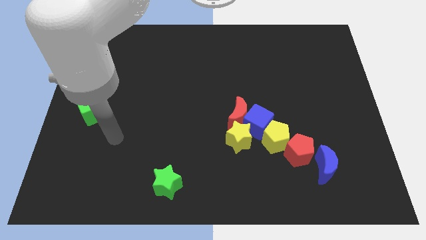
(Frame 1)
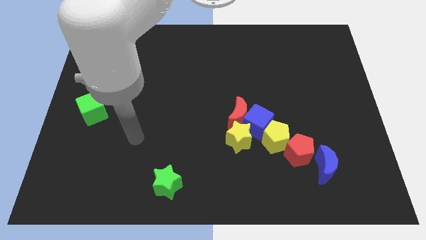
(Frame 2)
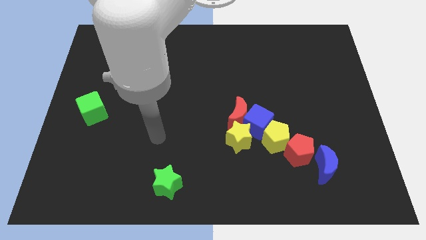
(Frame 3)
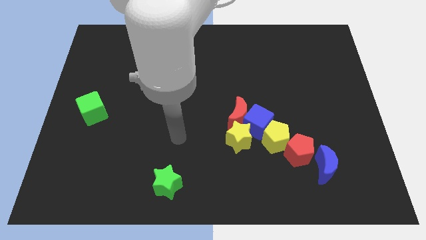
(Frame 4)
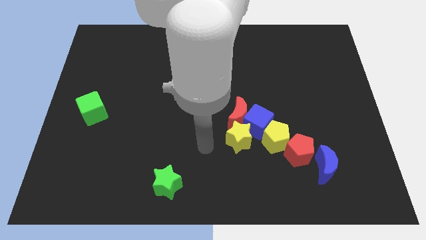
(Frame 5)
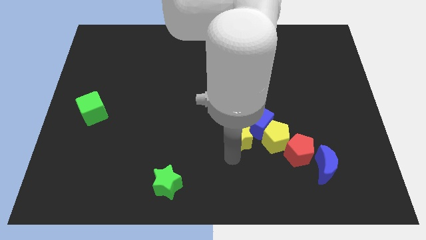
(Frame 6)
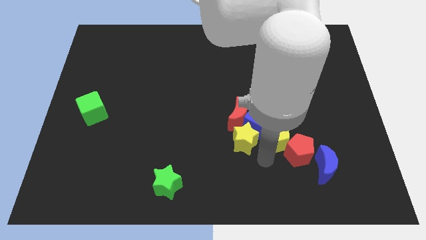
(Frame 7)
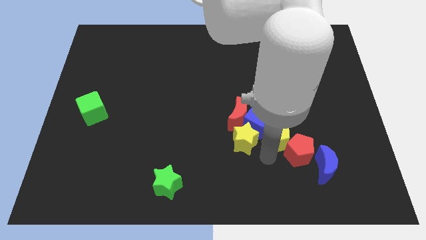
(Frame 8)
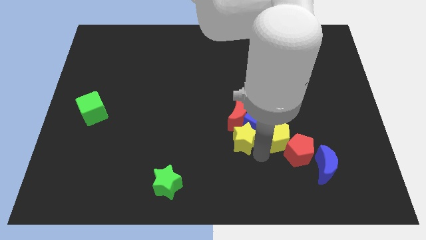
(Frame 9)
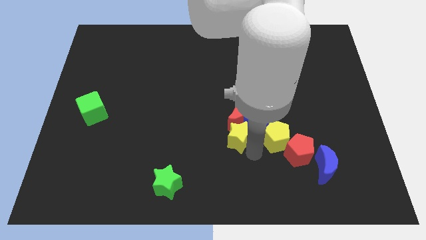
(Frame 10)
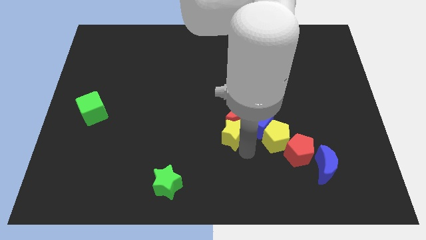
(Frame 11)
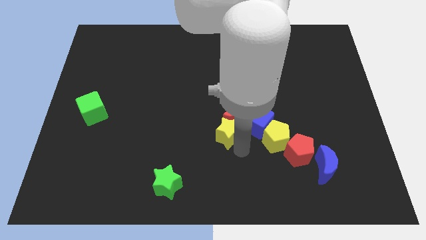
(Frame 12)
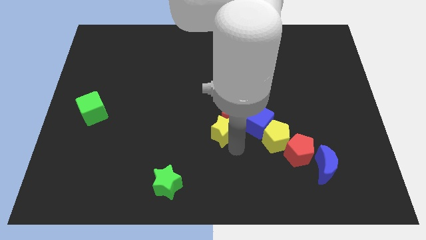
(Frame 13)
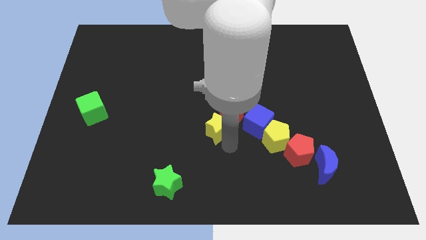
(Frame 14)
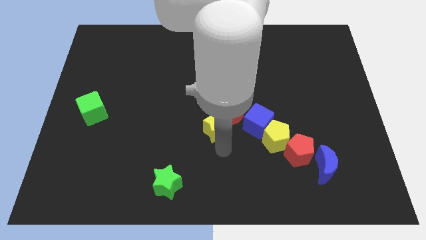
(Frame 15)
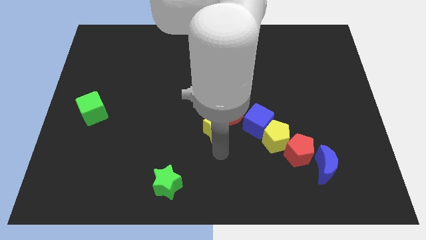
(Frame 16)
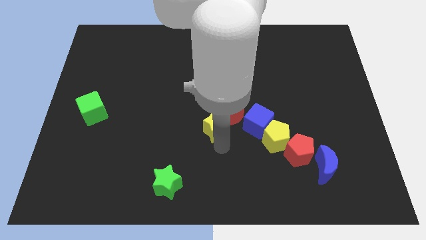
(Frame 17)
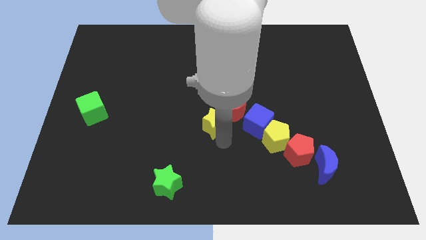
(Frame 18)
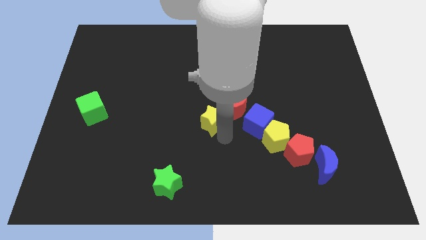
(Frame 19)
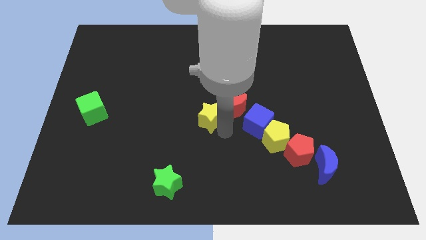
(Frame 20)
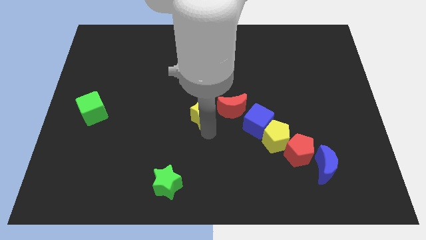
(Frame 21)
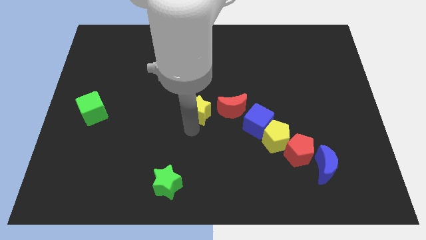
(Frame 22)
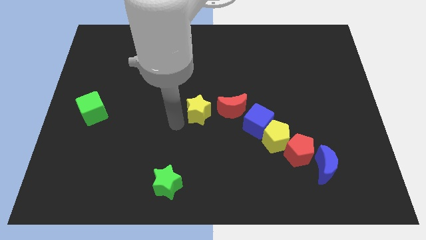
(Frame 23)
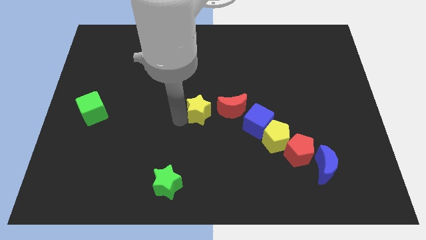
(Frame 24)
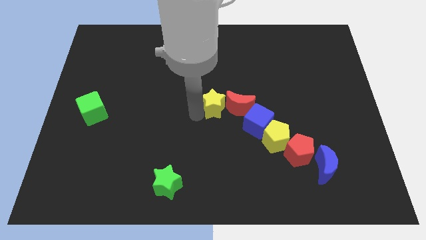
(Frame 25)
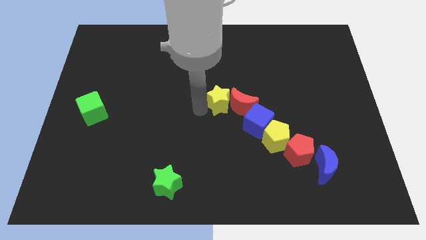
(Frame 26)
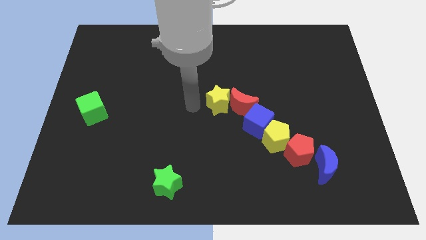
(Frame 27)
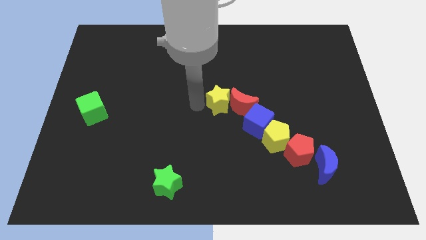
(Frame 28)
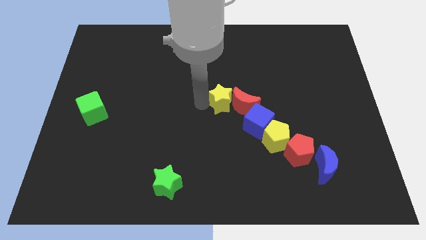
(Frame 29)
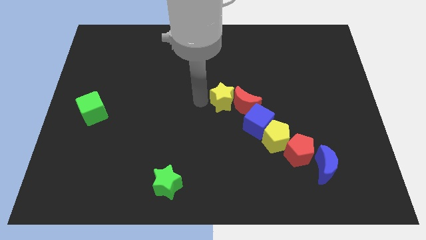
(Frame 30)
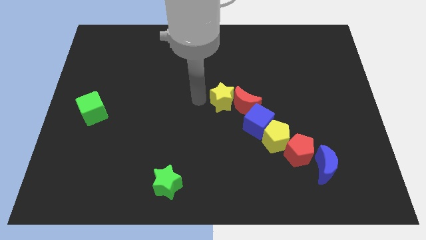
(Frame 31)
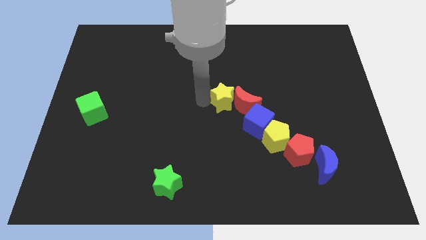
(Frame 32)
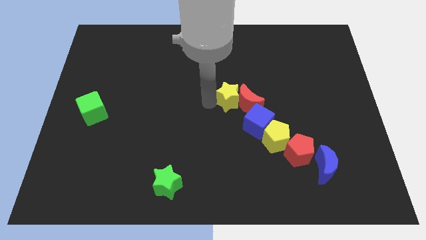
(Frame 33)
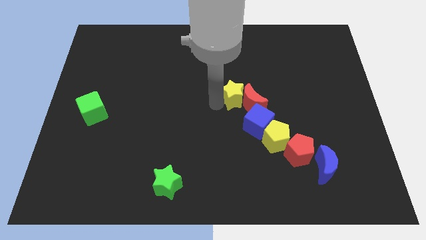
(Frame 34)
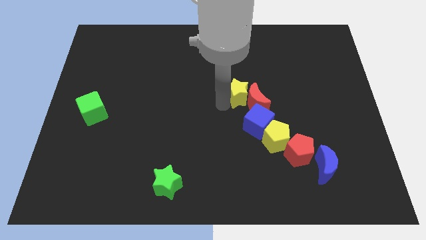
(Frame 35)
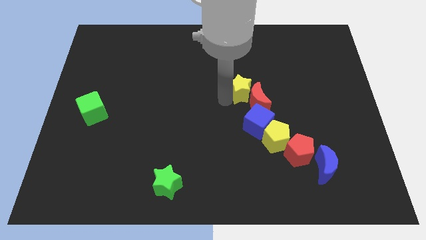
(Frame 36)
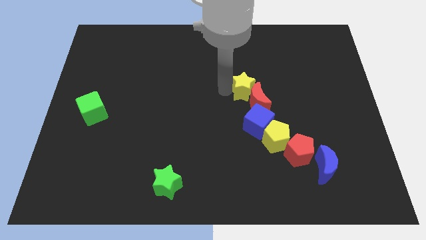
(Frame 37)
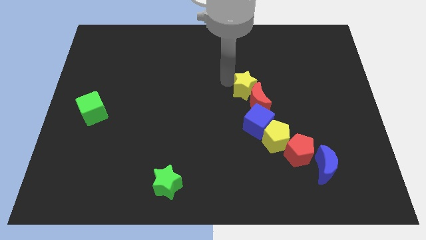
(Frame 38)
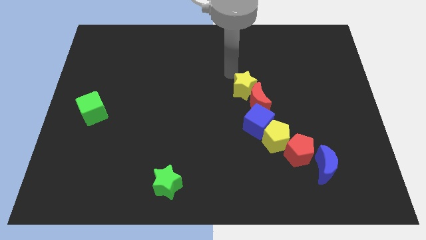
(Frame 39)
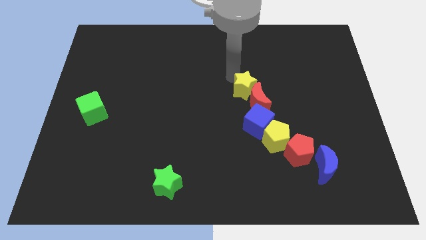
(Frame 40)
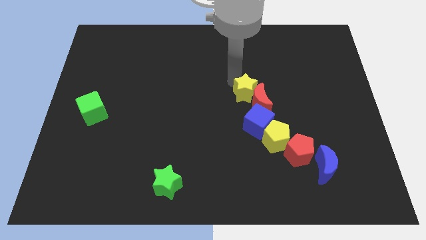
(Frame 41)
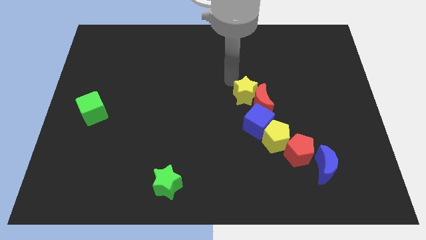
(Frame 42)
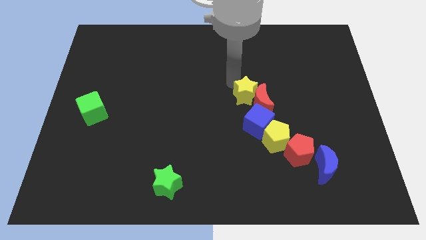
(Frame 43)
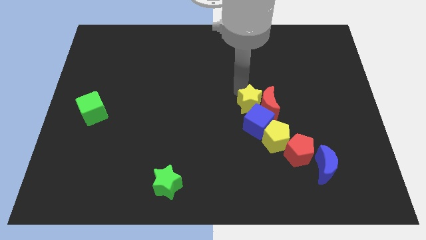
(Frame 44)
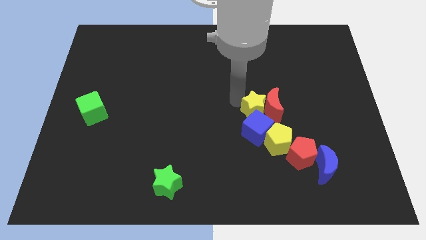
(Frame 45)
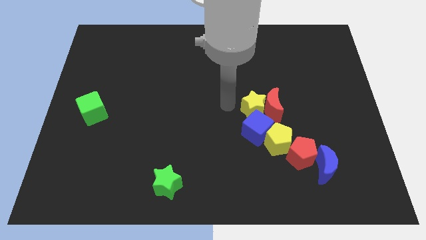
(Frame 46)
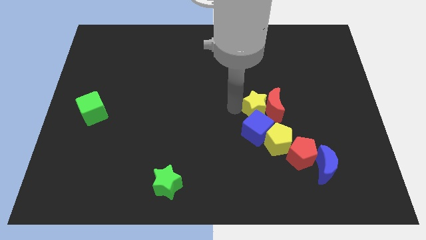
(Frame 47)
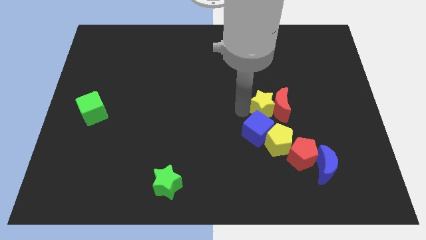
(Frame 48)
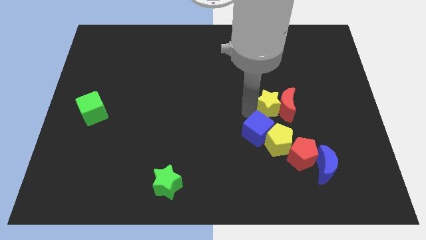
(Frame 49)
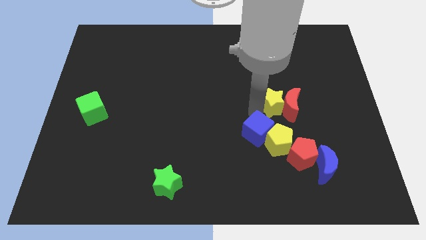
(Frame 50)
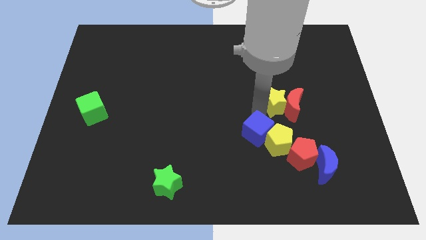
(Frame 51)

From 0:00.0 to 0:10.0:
put the yellow star to the top side of the red pentagon

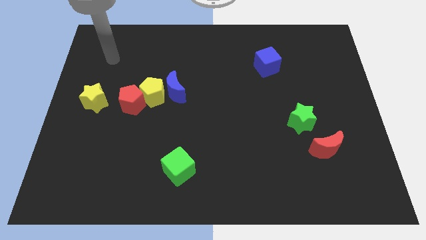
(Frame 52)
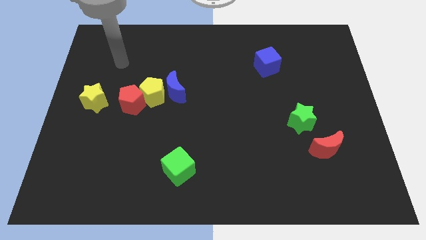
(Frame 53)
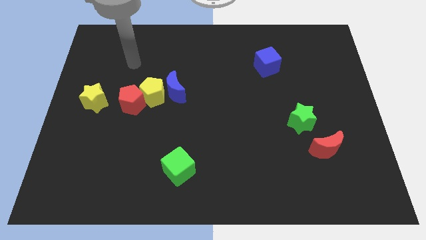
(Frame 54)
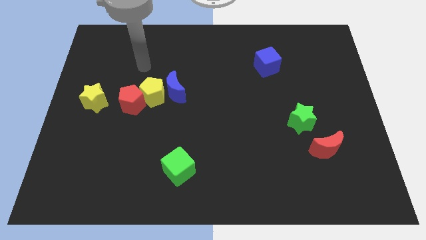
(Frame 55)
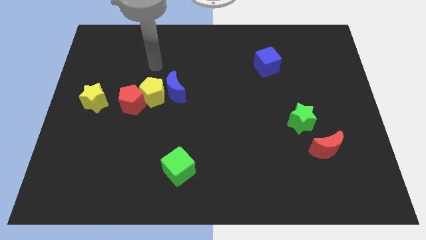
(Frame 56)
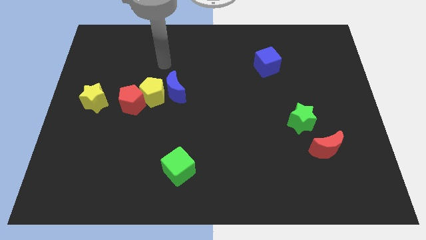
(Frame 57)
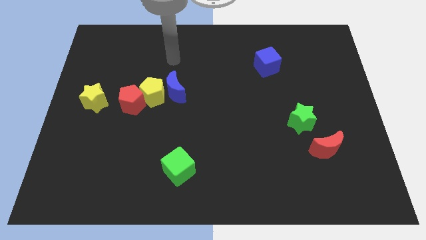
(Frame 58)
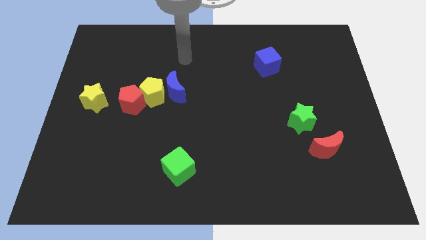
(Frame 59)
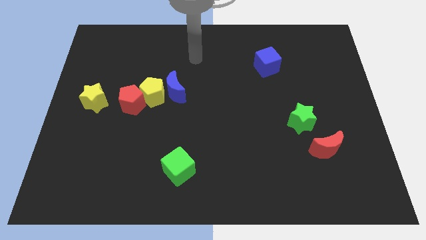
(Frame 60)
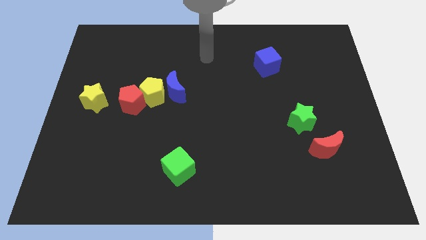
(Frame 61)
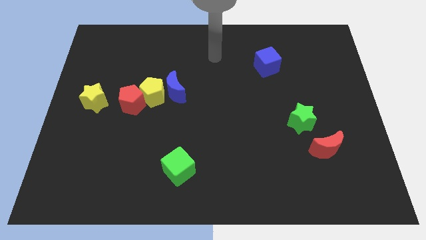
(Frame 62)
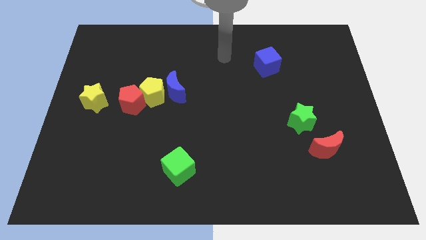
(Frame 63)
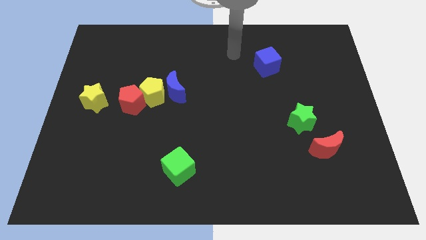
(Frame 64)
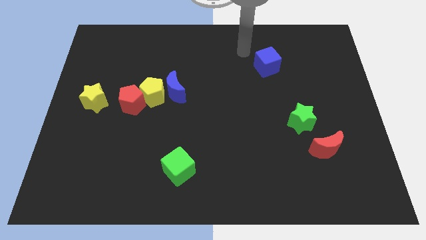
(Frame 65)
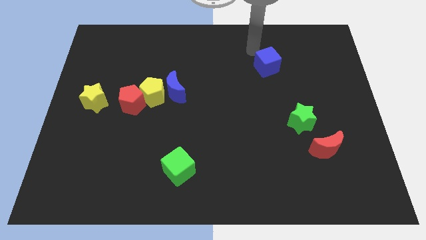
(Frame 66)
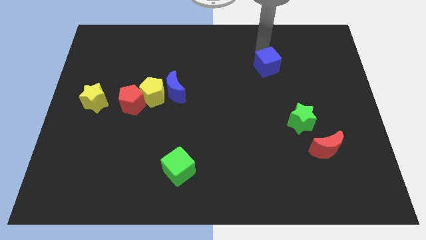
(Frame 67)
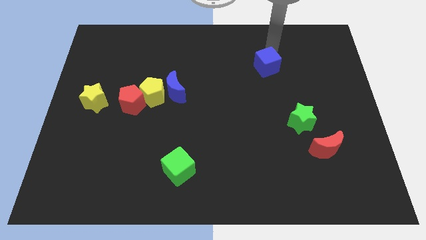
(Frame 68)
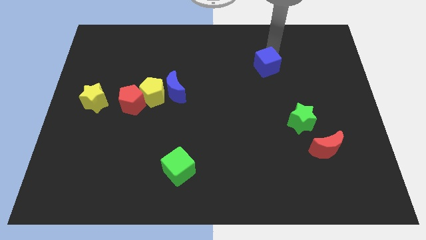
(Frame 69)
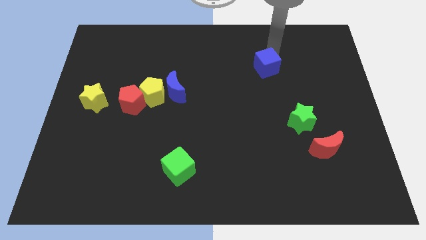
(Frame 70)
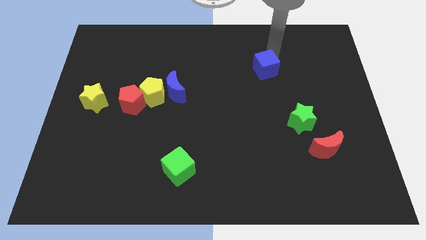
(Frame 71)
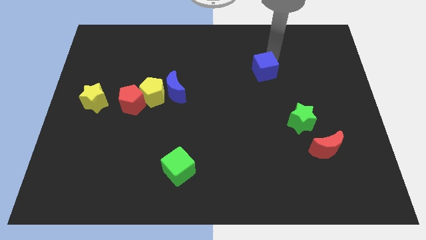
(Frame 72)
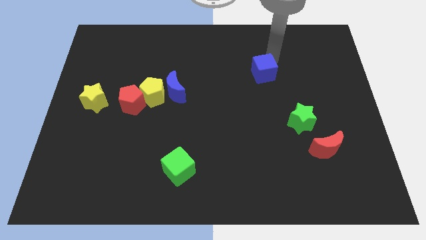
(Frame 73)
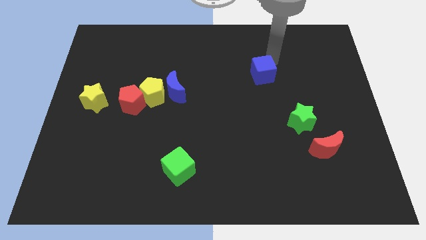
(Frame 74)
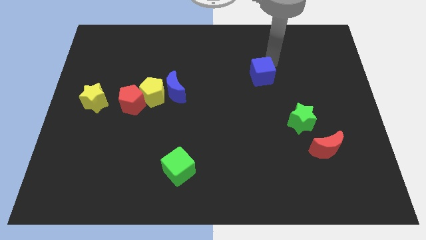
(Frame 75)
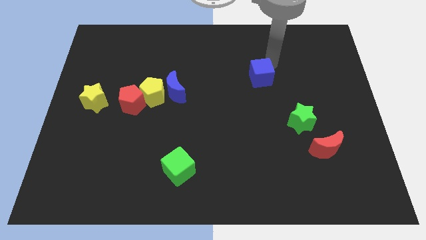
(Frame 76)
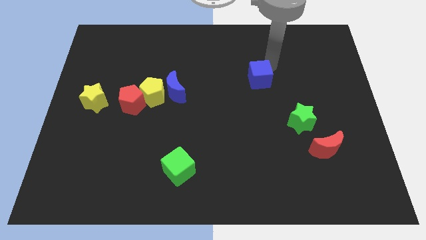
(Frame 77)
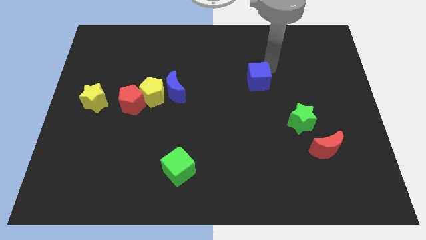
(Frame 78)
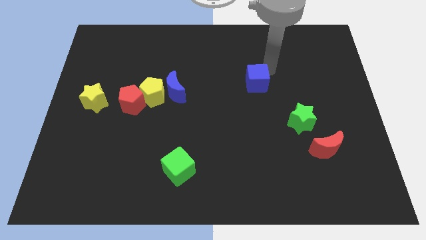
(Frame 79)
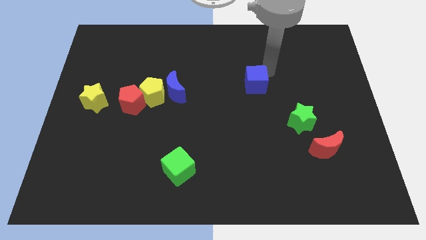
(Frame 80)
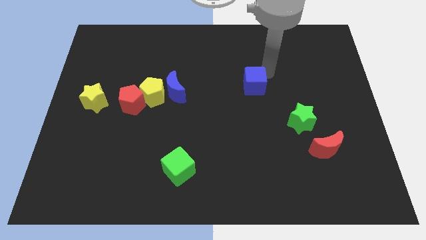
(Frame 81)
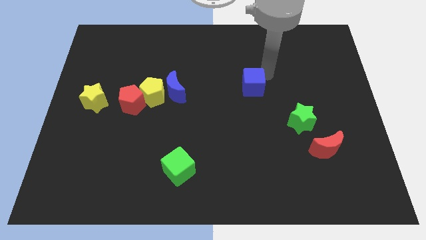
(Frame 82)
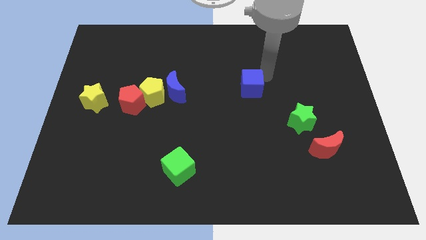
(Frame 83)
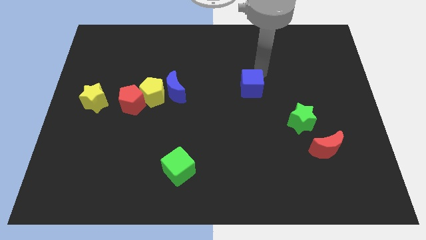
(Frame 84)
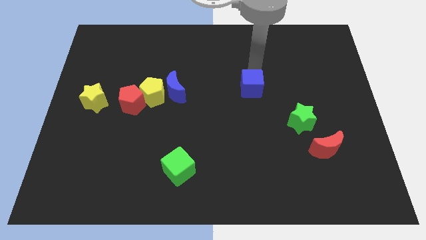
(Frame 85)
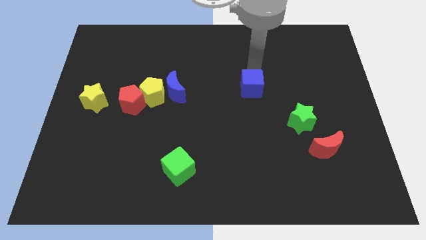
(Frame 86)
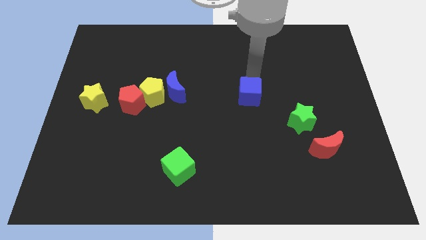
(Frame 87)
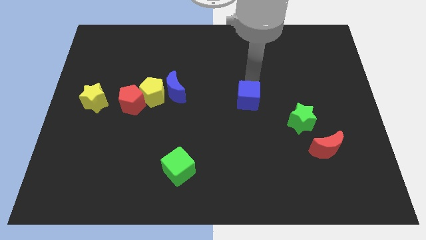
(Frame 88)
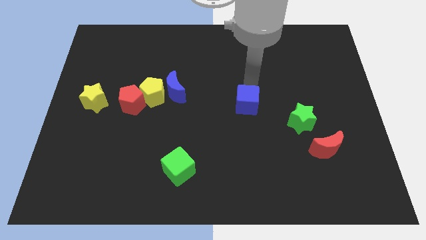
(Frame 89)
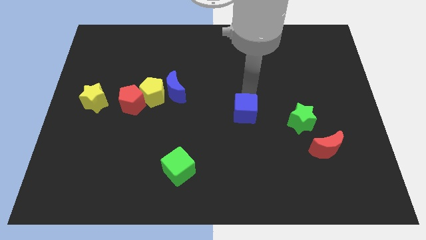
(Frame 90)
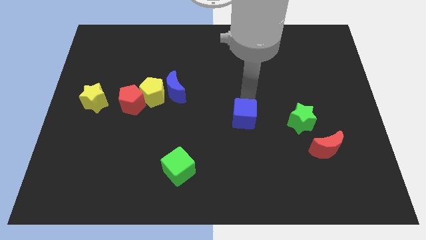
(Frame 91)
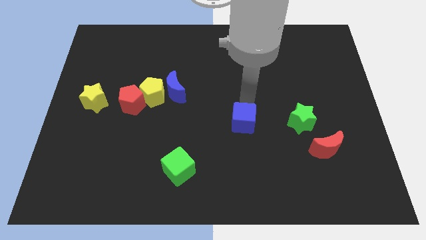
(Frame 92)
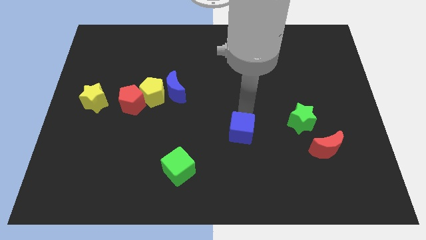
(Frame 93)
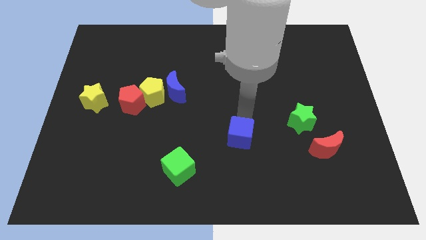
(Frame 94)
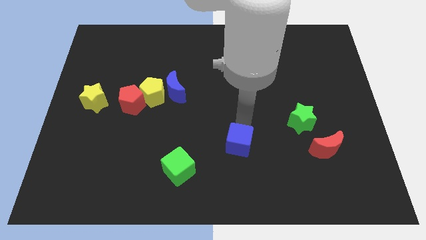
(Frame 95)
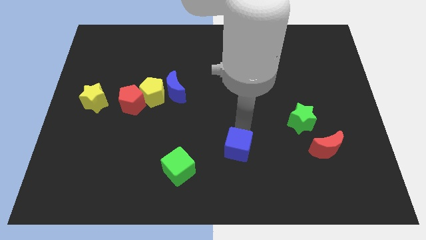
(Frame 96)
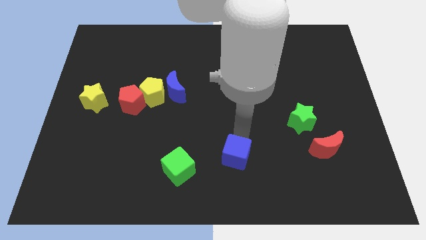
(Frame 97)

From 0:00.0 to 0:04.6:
put the blue cube just right of the green cube
